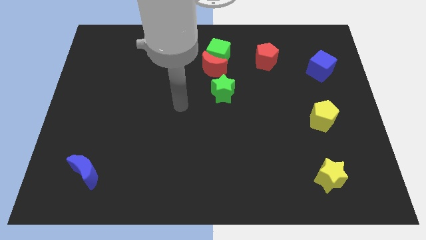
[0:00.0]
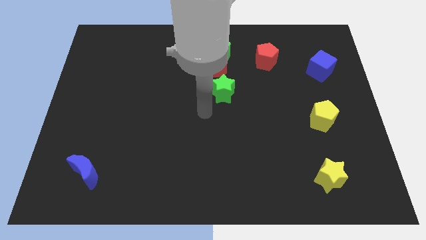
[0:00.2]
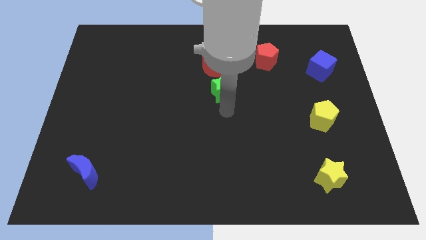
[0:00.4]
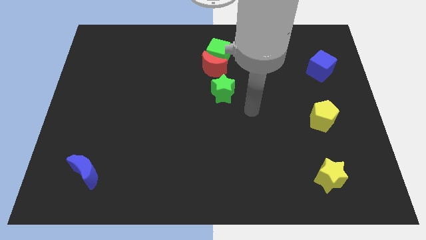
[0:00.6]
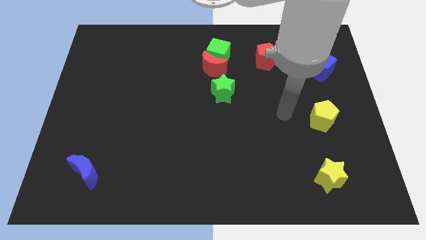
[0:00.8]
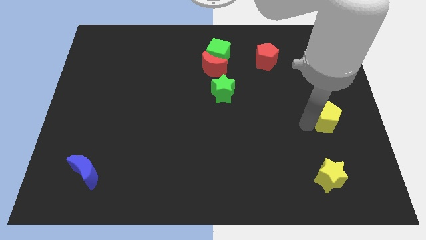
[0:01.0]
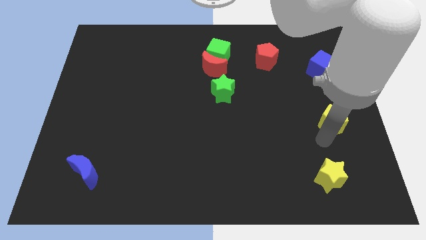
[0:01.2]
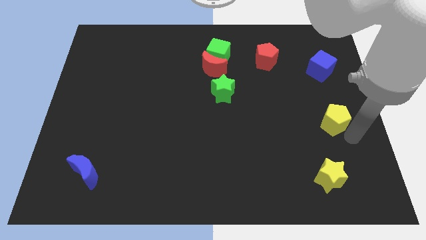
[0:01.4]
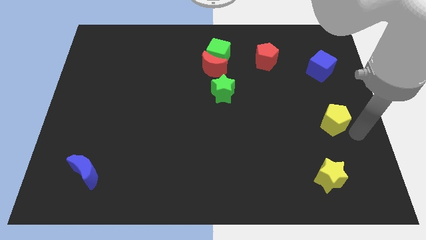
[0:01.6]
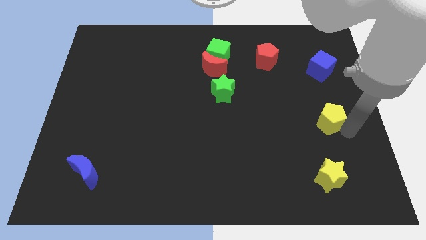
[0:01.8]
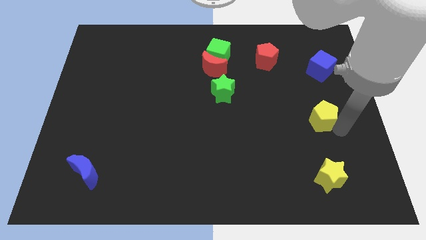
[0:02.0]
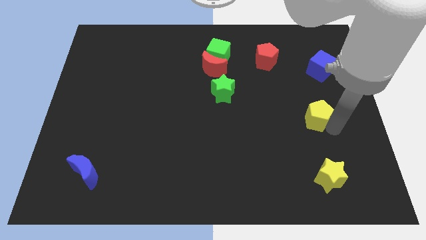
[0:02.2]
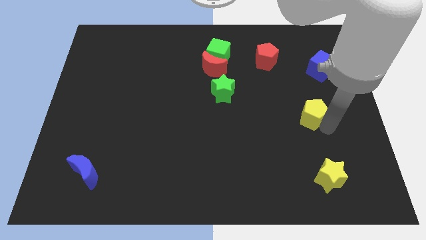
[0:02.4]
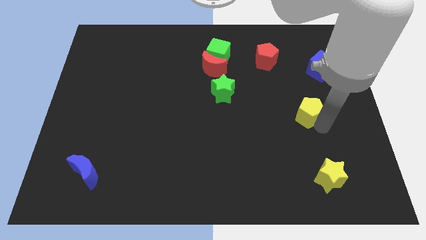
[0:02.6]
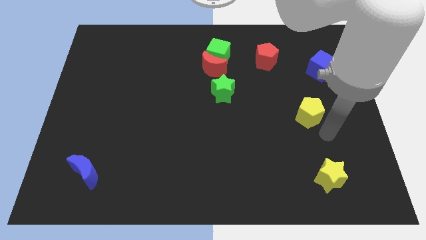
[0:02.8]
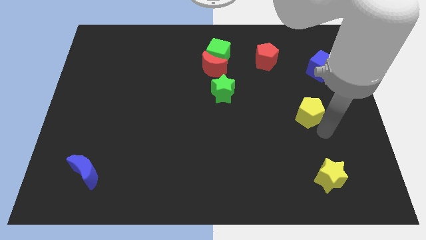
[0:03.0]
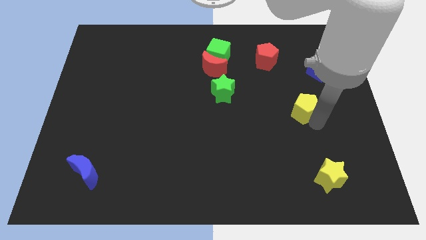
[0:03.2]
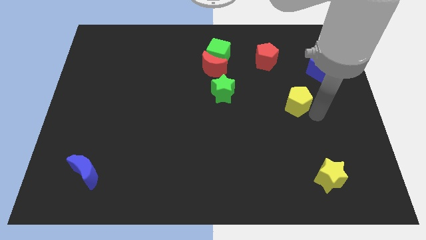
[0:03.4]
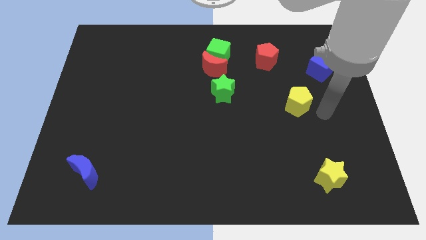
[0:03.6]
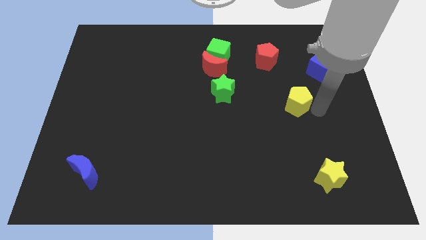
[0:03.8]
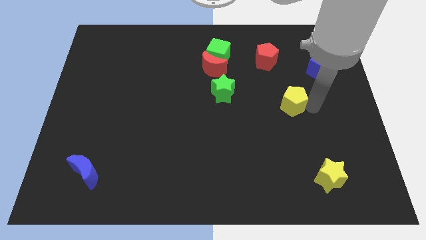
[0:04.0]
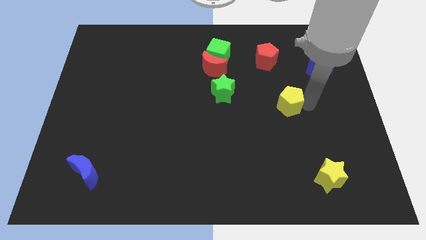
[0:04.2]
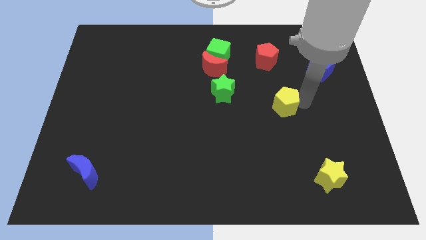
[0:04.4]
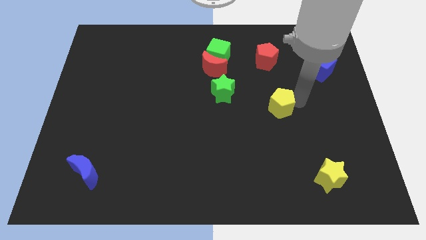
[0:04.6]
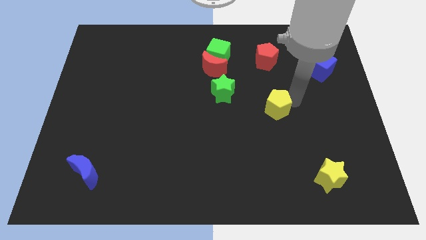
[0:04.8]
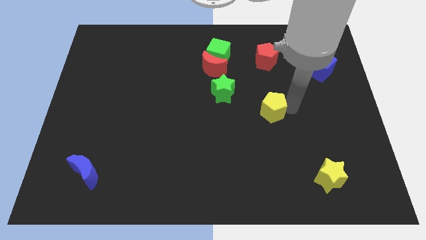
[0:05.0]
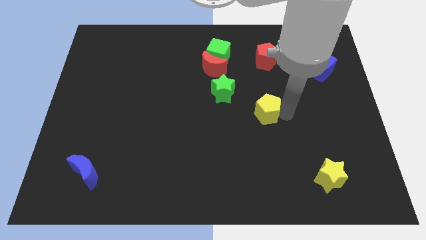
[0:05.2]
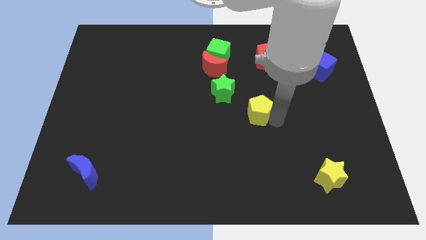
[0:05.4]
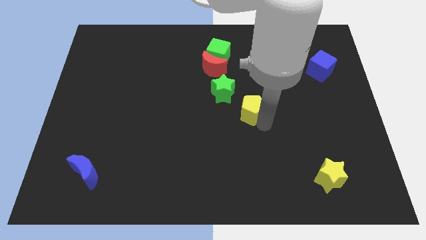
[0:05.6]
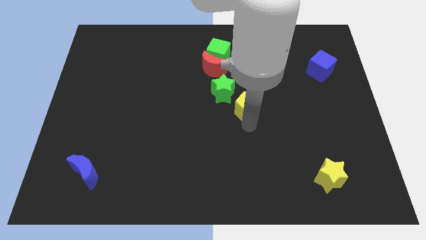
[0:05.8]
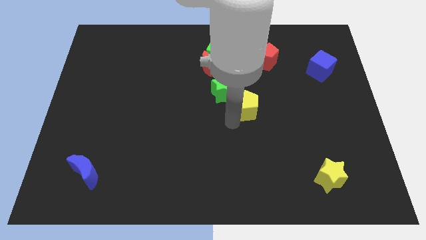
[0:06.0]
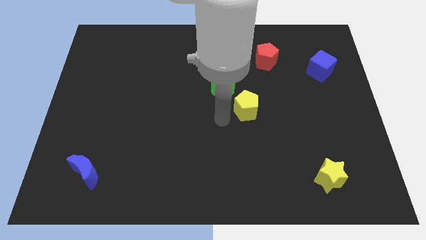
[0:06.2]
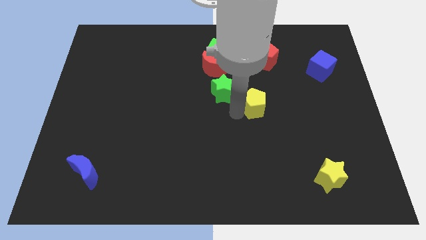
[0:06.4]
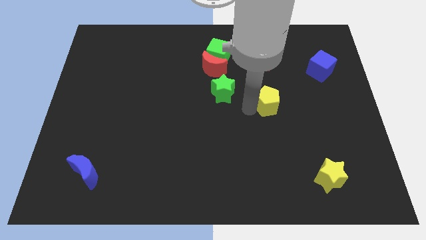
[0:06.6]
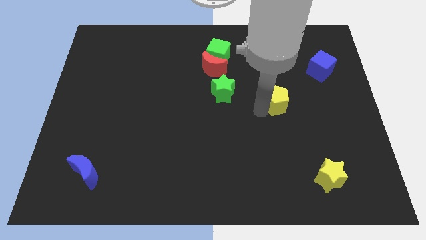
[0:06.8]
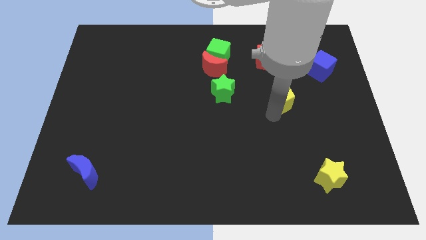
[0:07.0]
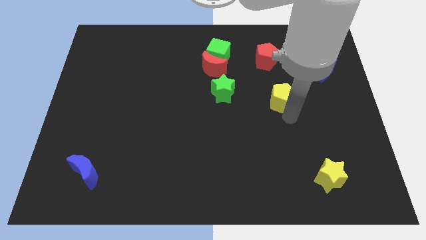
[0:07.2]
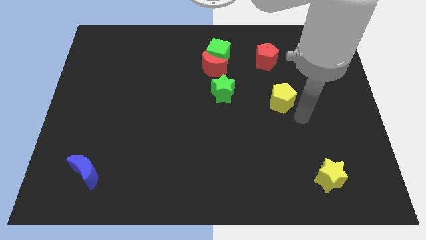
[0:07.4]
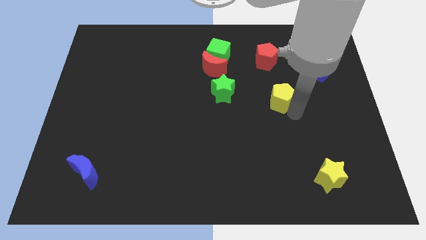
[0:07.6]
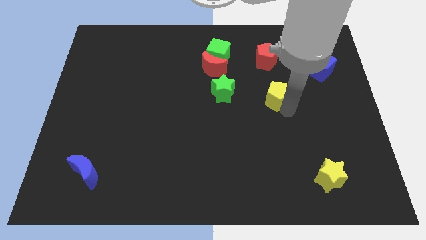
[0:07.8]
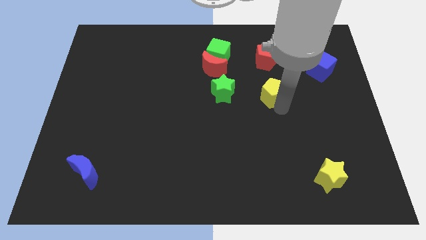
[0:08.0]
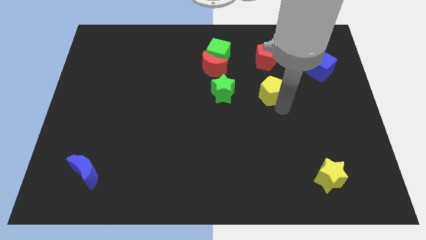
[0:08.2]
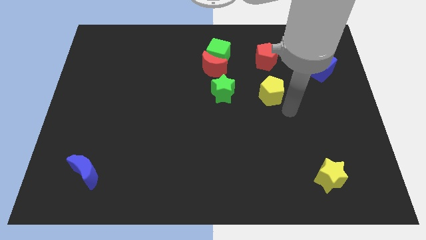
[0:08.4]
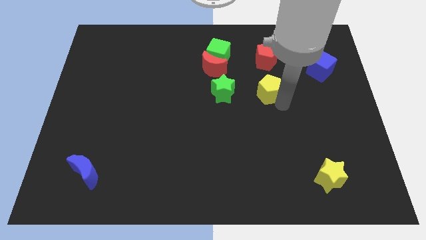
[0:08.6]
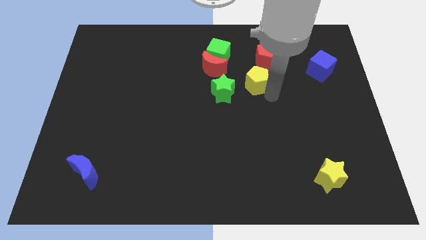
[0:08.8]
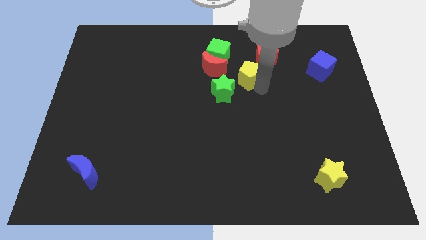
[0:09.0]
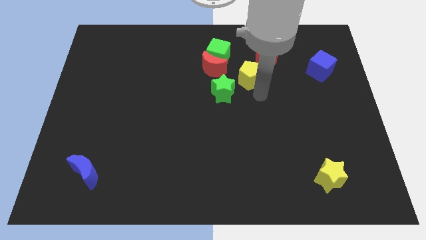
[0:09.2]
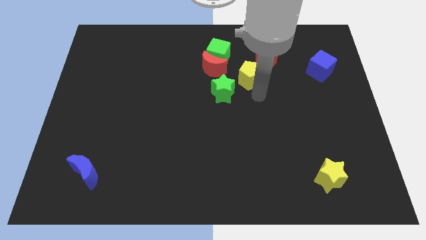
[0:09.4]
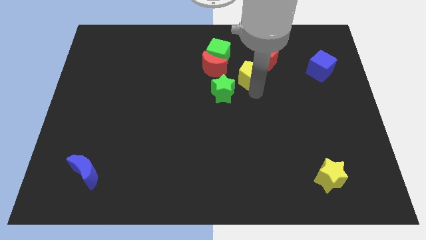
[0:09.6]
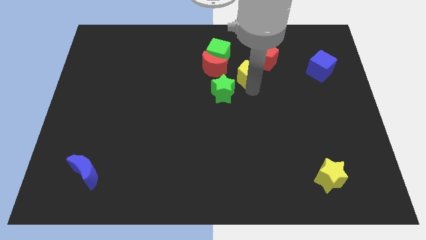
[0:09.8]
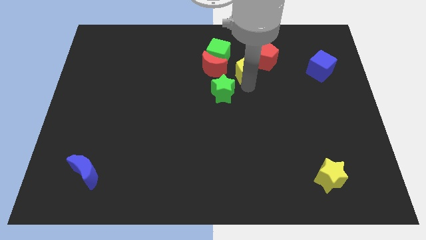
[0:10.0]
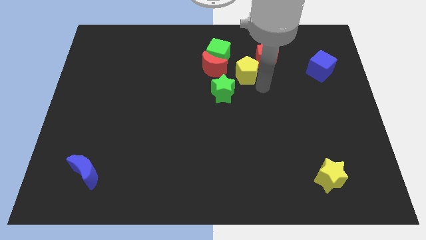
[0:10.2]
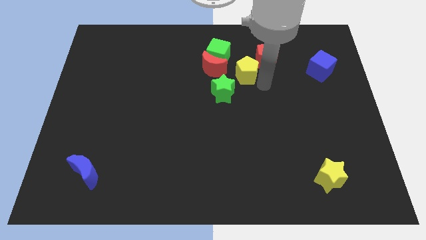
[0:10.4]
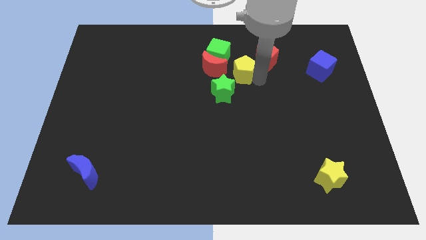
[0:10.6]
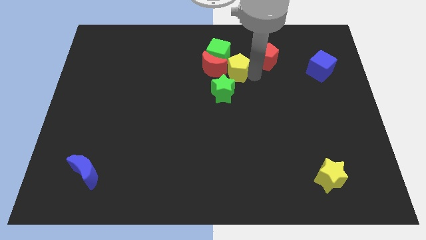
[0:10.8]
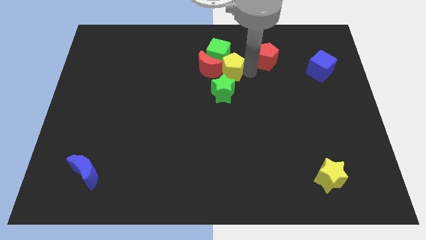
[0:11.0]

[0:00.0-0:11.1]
slide the yellow pentagon next to the green cube

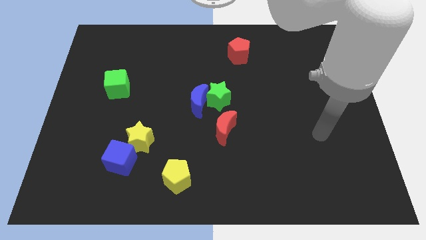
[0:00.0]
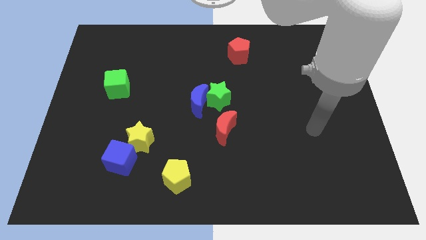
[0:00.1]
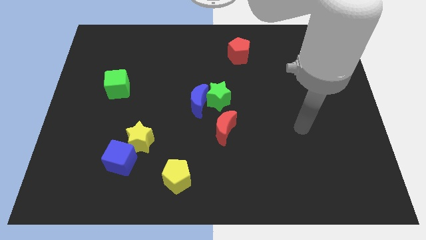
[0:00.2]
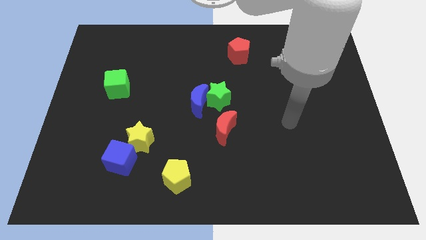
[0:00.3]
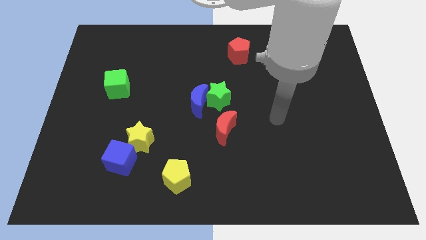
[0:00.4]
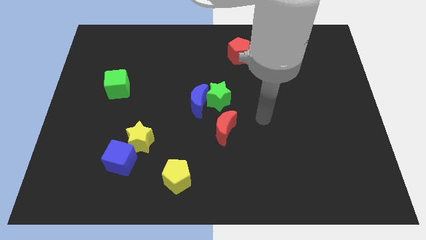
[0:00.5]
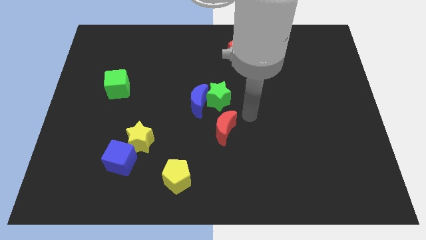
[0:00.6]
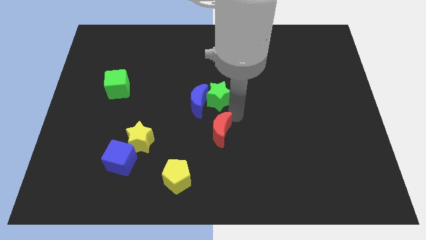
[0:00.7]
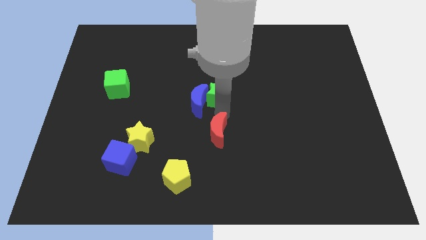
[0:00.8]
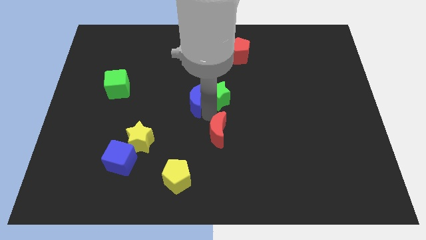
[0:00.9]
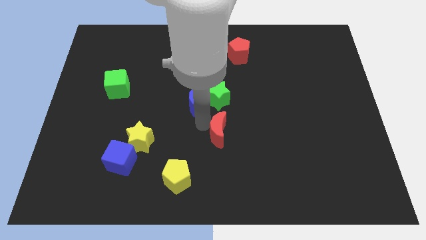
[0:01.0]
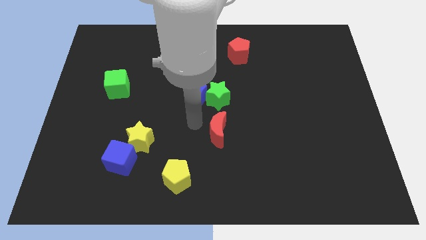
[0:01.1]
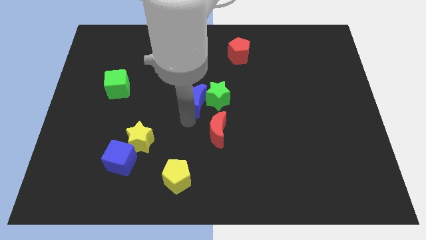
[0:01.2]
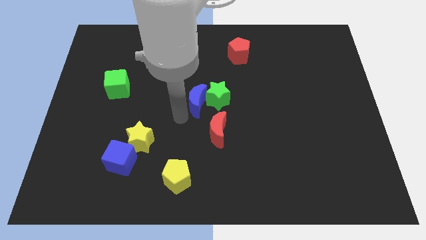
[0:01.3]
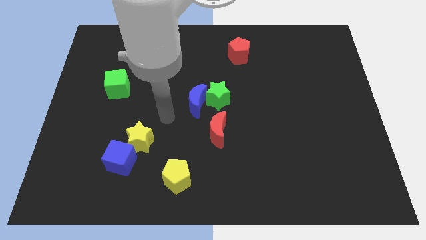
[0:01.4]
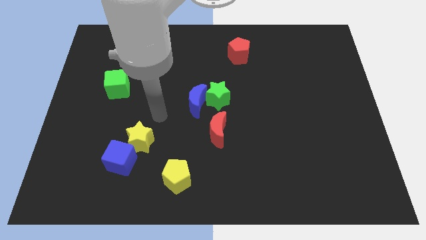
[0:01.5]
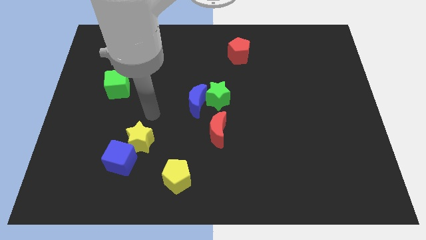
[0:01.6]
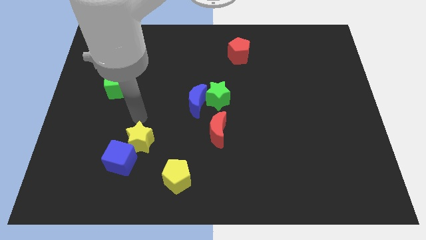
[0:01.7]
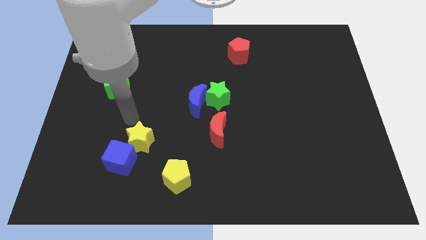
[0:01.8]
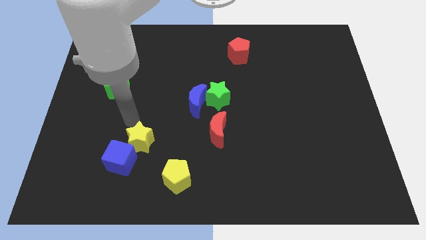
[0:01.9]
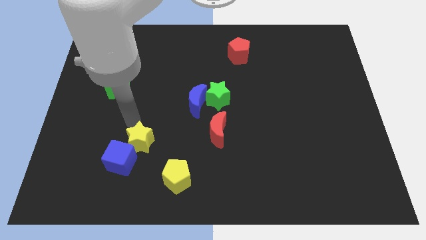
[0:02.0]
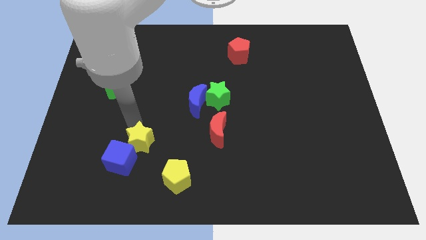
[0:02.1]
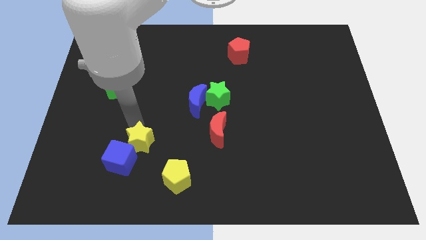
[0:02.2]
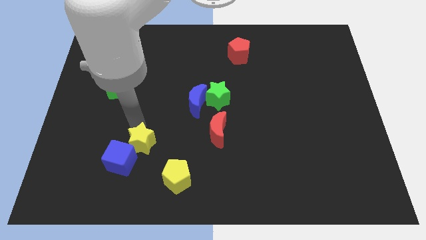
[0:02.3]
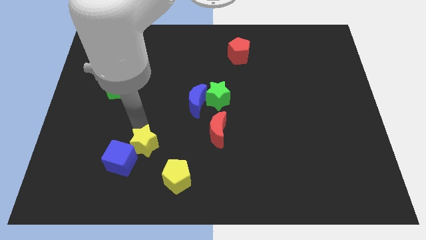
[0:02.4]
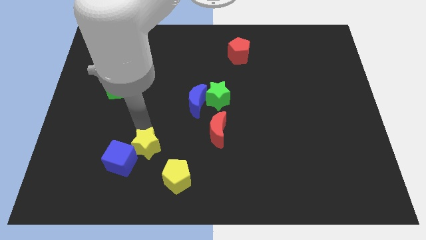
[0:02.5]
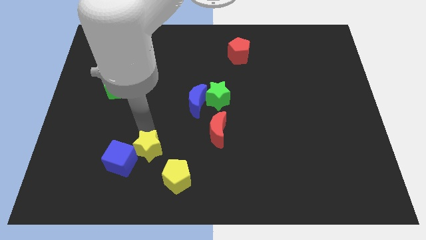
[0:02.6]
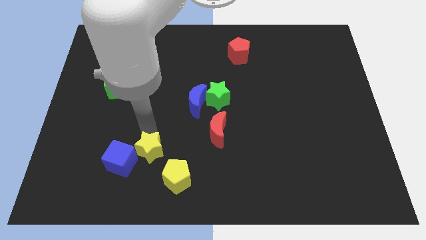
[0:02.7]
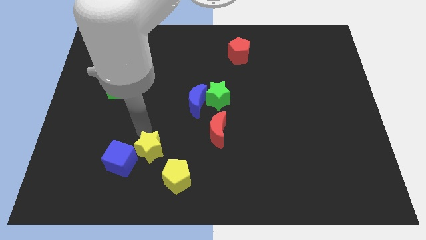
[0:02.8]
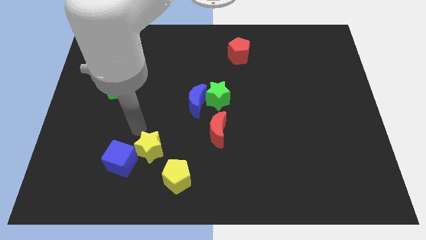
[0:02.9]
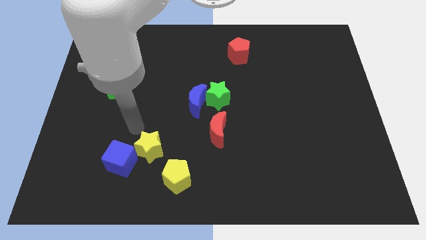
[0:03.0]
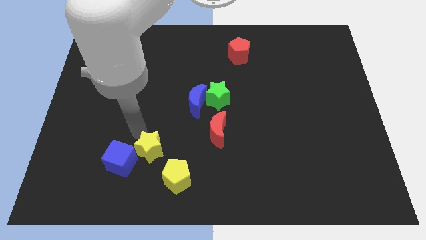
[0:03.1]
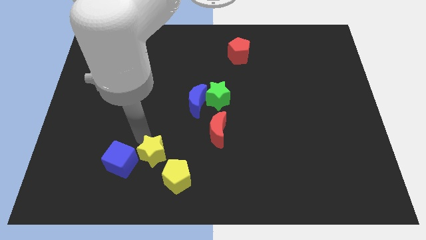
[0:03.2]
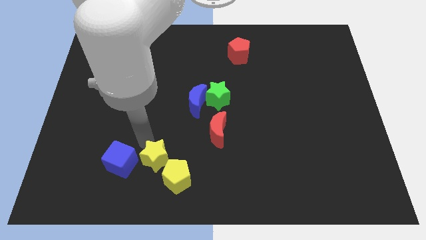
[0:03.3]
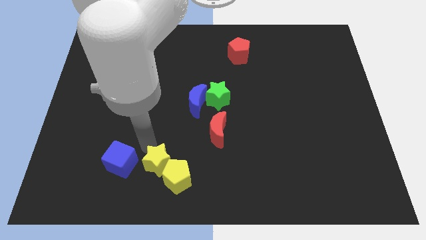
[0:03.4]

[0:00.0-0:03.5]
move the yellow star close to the yellow pentagon
